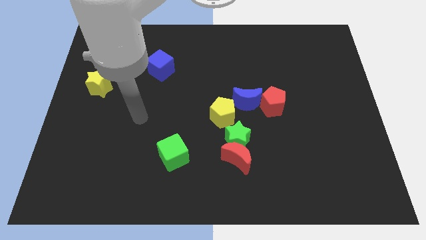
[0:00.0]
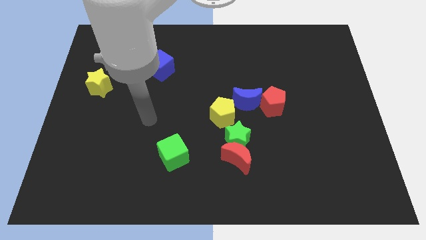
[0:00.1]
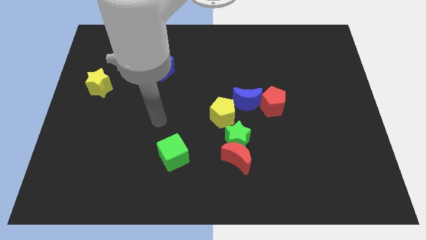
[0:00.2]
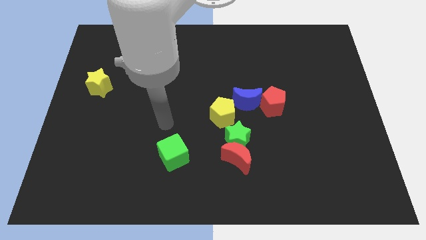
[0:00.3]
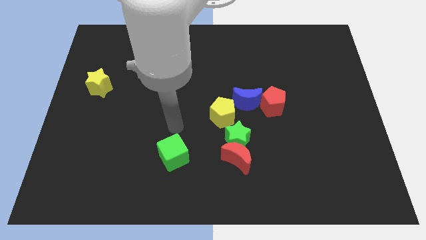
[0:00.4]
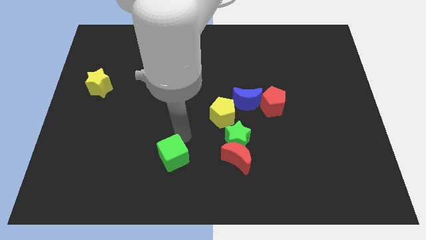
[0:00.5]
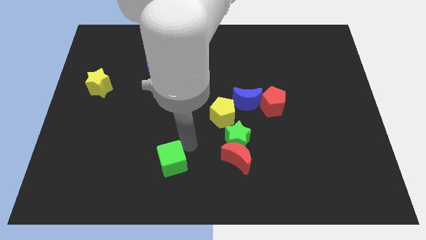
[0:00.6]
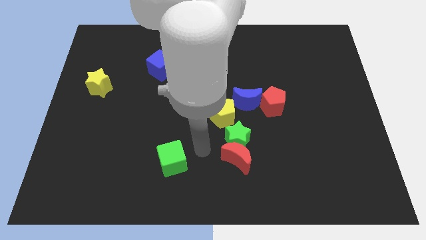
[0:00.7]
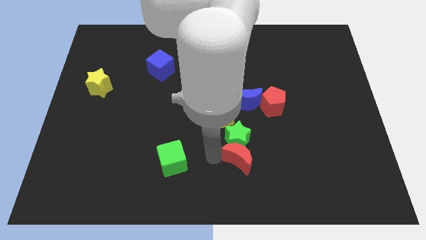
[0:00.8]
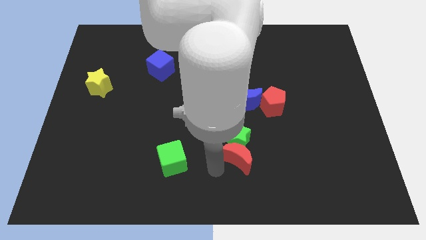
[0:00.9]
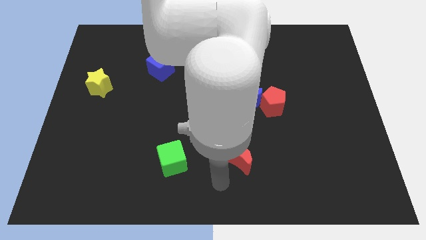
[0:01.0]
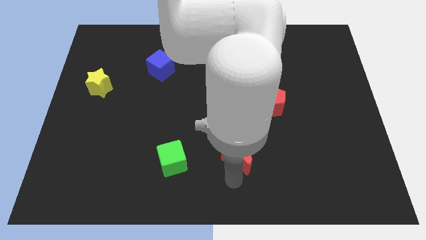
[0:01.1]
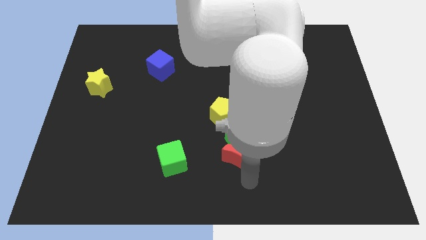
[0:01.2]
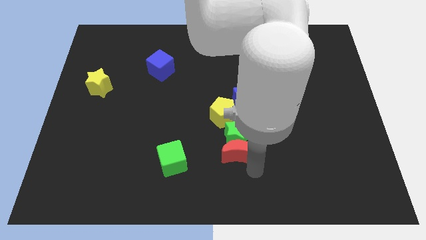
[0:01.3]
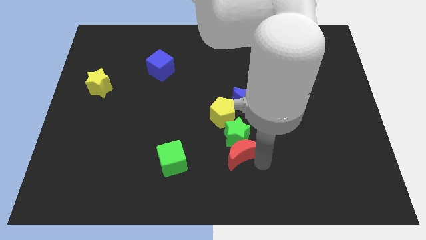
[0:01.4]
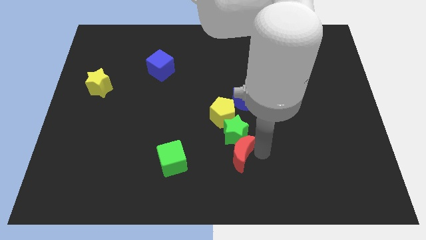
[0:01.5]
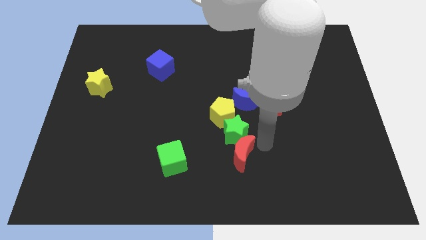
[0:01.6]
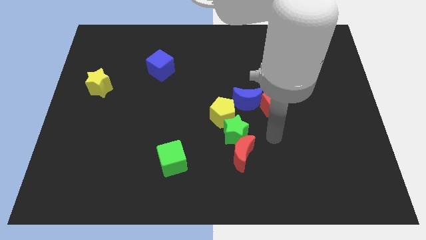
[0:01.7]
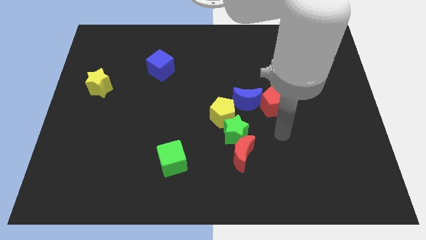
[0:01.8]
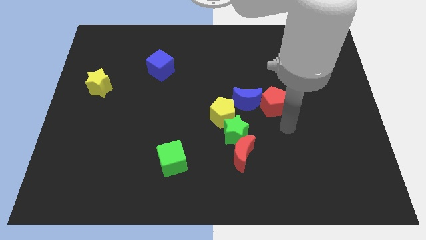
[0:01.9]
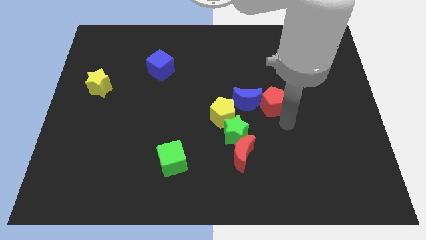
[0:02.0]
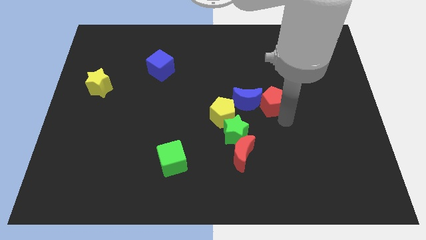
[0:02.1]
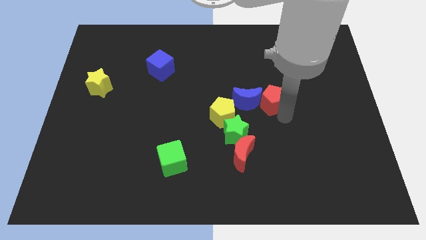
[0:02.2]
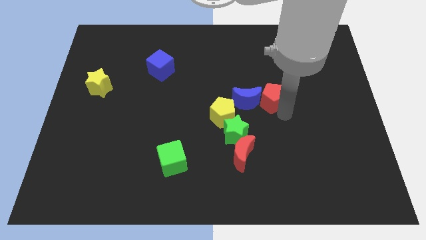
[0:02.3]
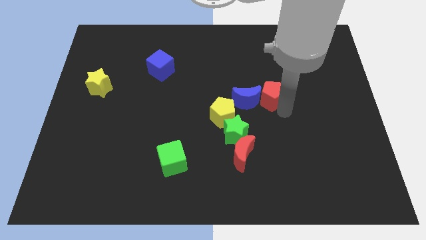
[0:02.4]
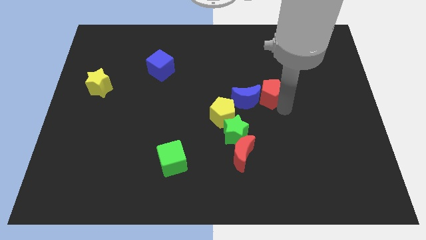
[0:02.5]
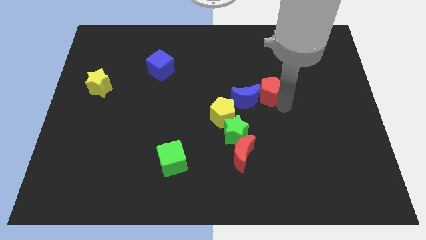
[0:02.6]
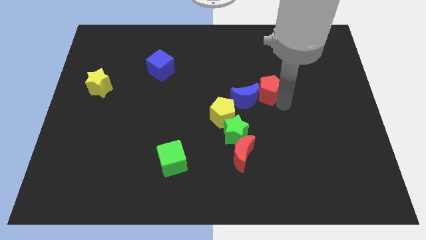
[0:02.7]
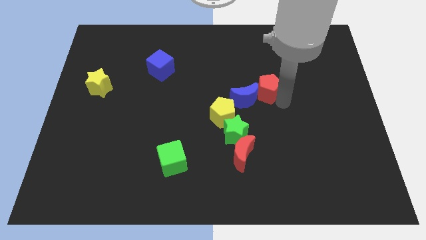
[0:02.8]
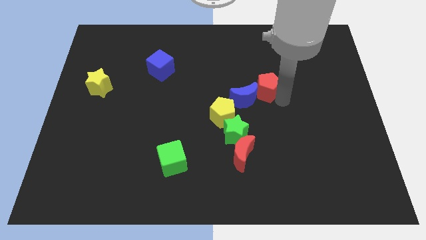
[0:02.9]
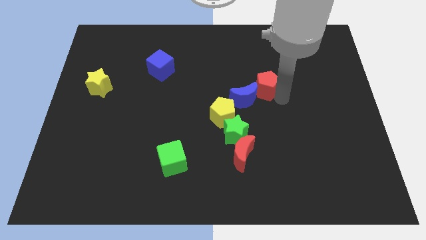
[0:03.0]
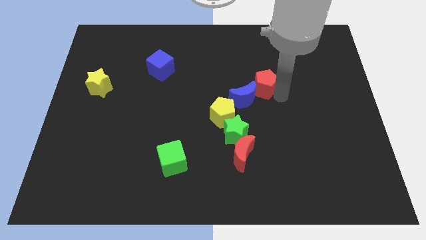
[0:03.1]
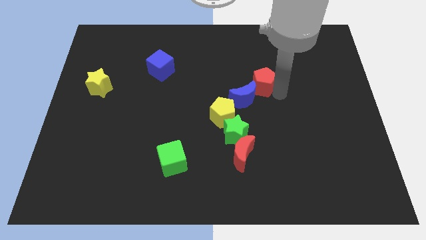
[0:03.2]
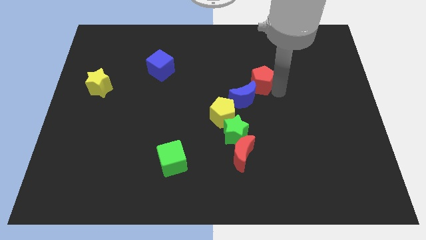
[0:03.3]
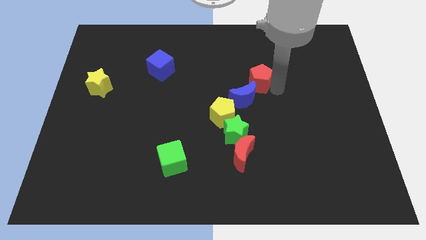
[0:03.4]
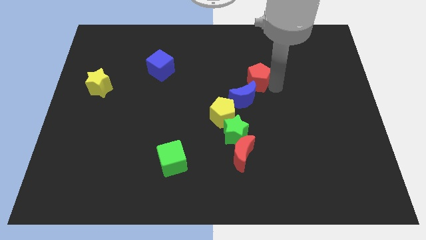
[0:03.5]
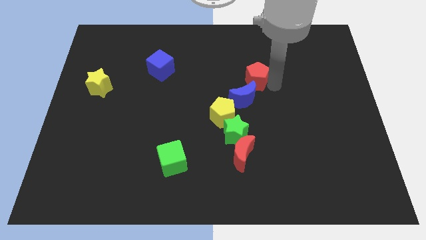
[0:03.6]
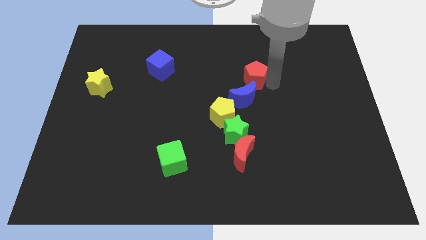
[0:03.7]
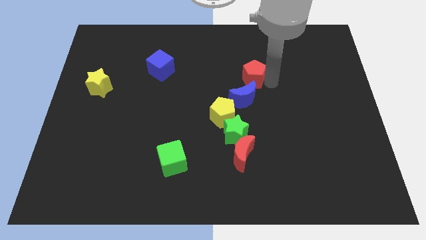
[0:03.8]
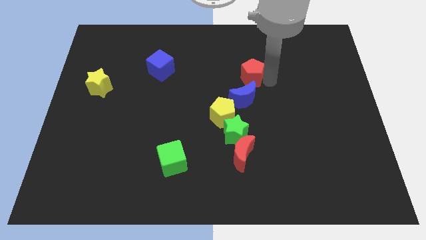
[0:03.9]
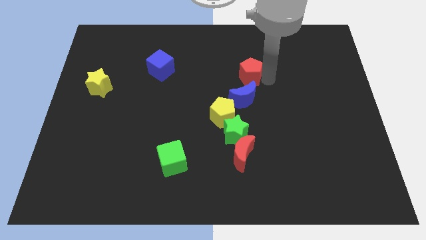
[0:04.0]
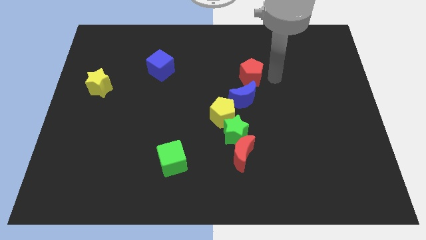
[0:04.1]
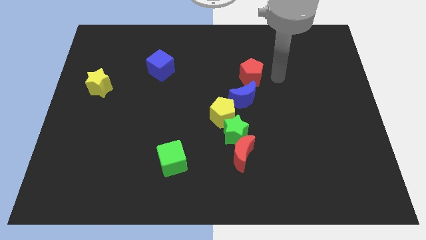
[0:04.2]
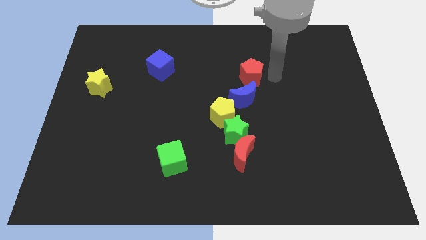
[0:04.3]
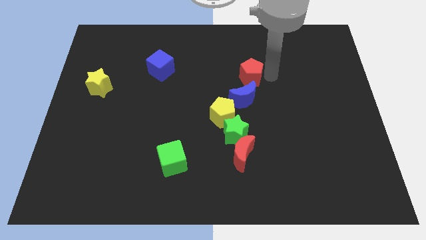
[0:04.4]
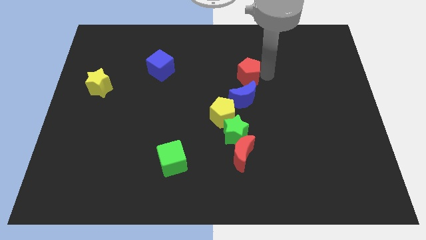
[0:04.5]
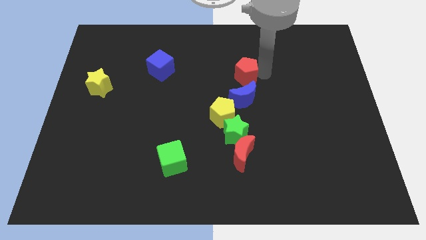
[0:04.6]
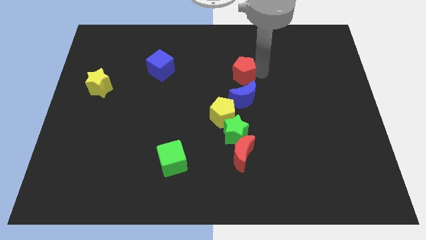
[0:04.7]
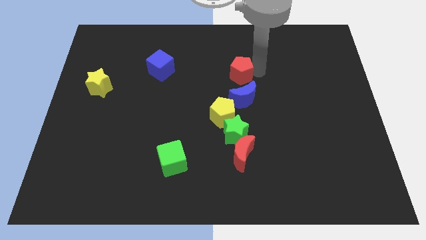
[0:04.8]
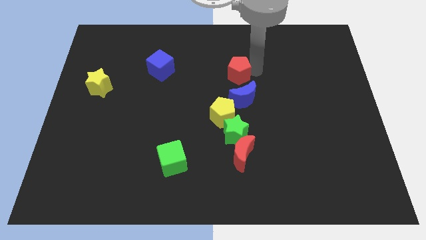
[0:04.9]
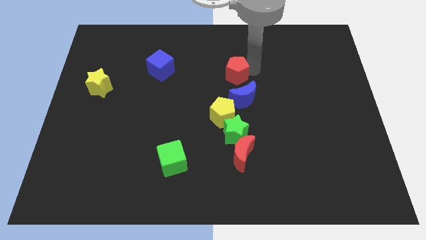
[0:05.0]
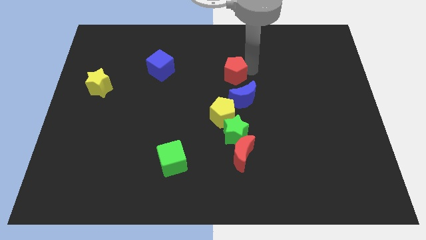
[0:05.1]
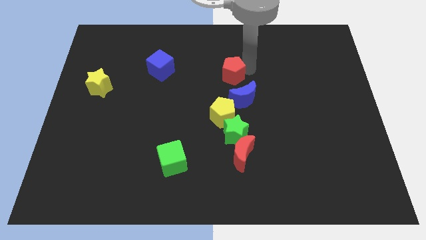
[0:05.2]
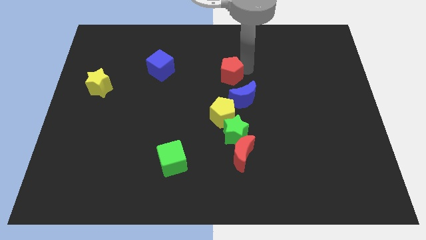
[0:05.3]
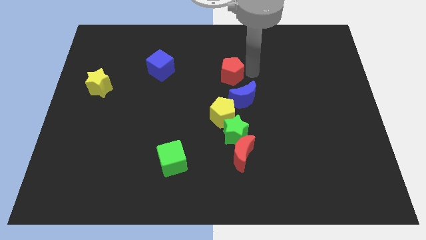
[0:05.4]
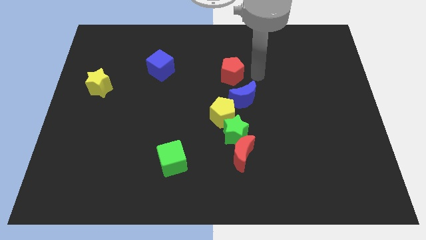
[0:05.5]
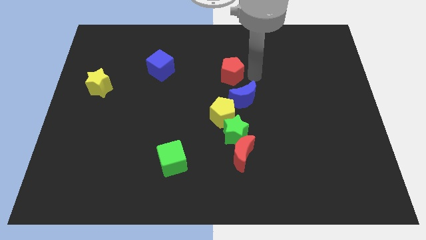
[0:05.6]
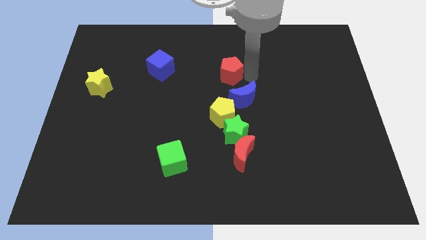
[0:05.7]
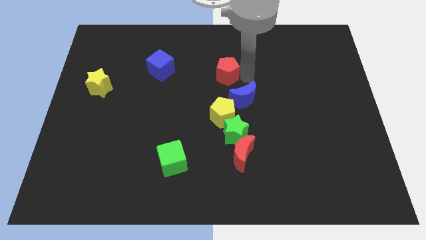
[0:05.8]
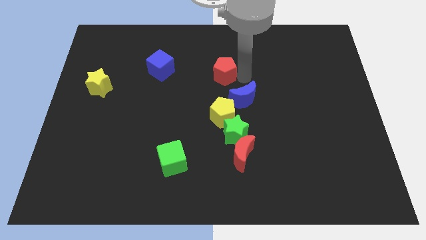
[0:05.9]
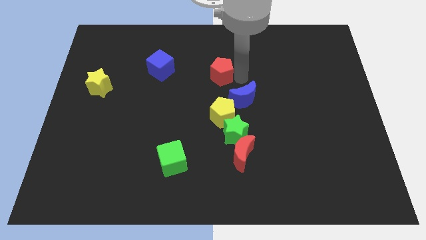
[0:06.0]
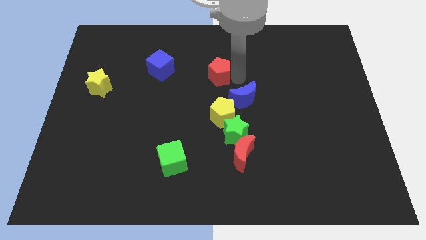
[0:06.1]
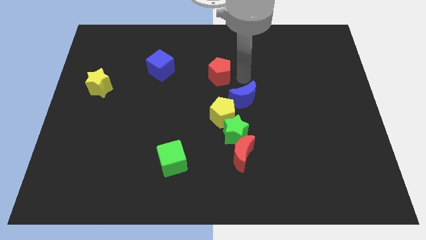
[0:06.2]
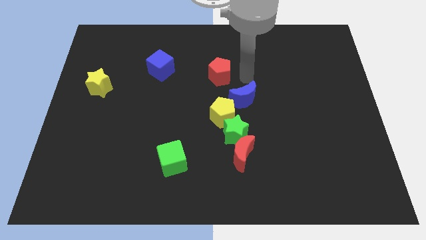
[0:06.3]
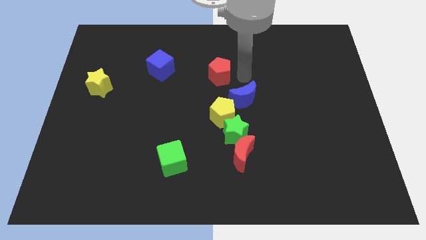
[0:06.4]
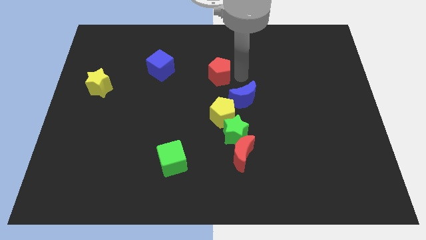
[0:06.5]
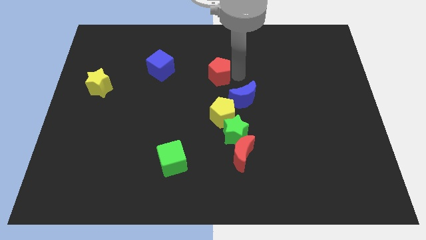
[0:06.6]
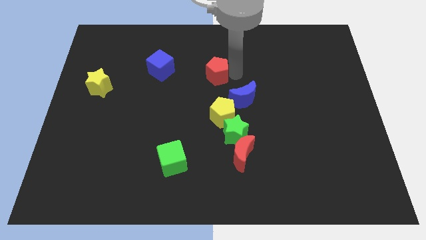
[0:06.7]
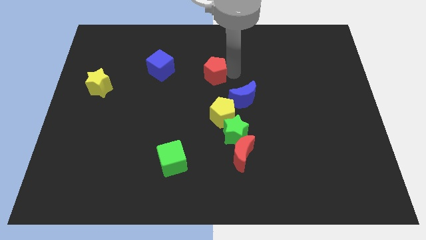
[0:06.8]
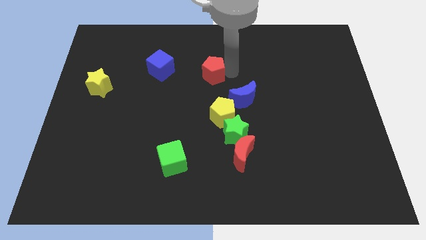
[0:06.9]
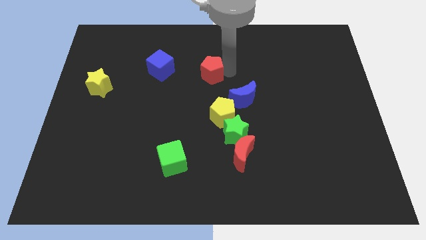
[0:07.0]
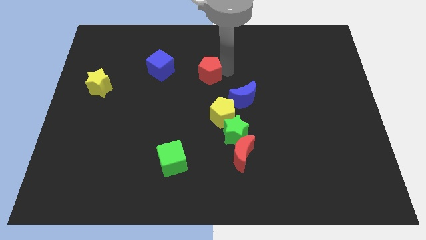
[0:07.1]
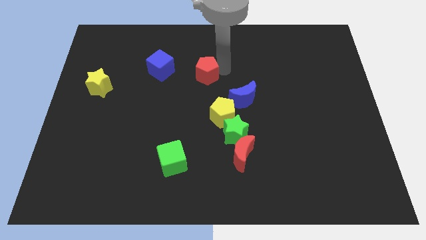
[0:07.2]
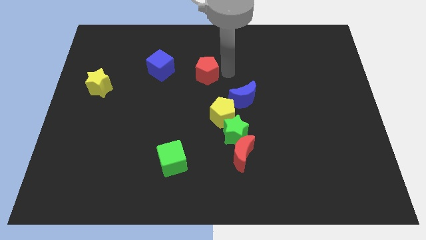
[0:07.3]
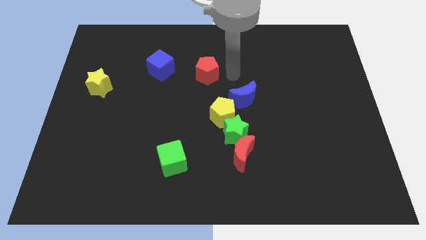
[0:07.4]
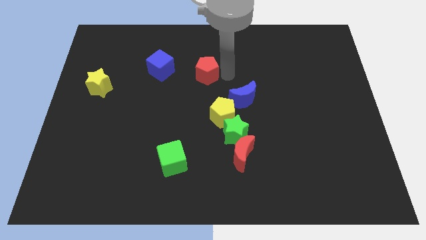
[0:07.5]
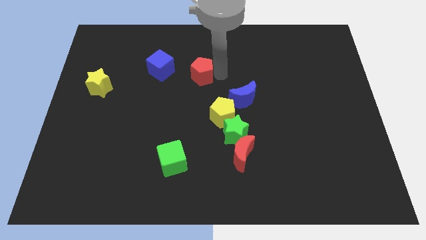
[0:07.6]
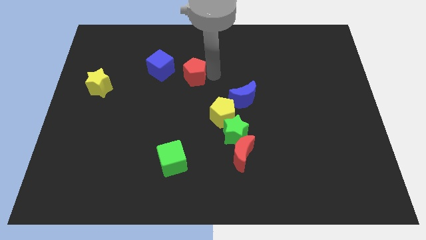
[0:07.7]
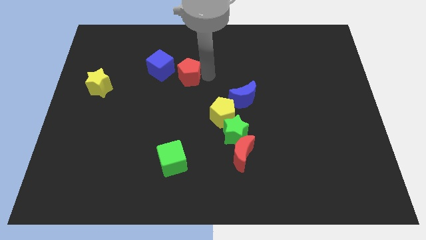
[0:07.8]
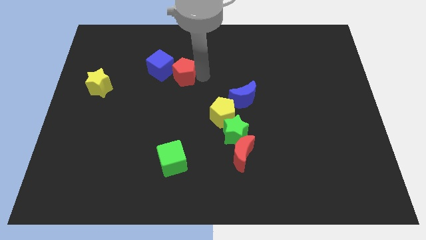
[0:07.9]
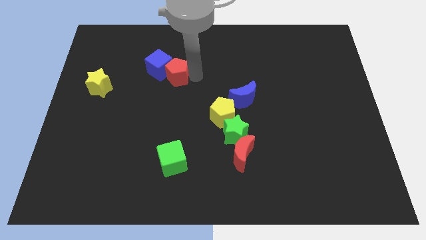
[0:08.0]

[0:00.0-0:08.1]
put the red pentagon to the blue cube
